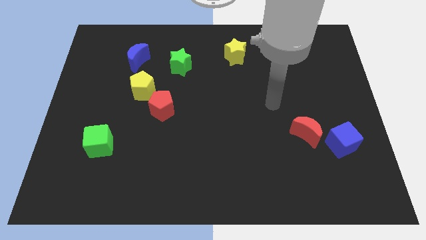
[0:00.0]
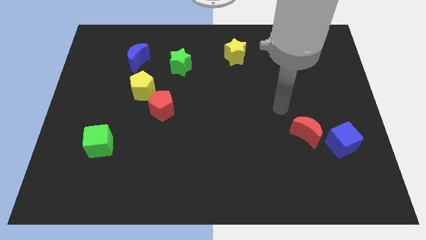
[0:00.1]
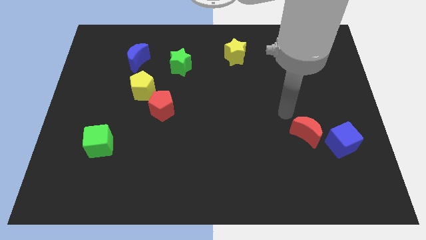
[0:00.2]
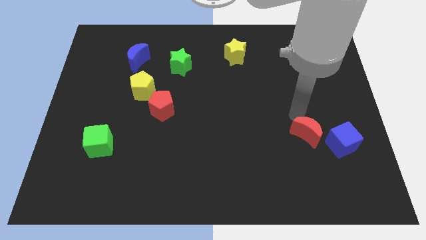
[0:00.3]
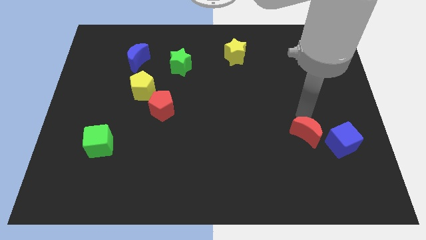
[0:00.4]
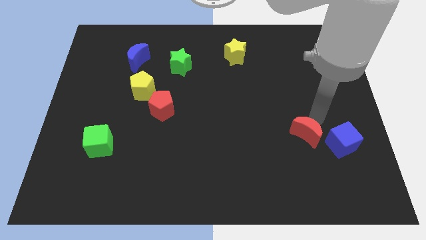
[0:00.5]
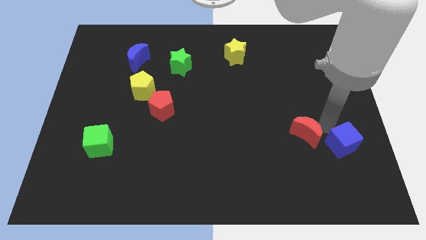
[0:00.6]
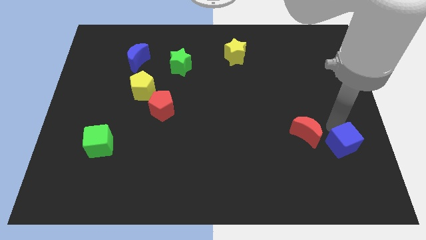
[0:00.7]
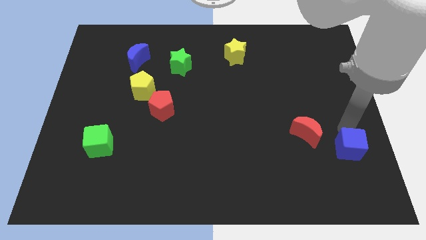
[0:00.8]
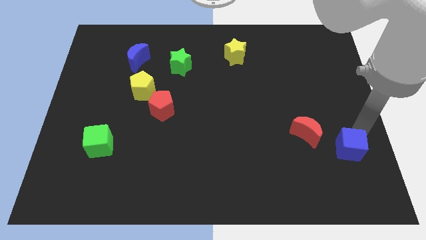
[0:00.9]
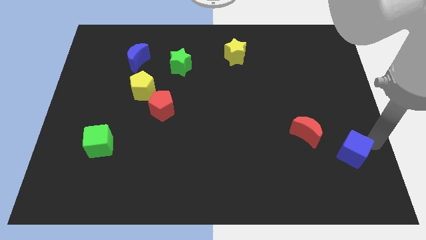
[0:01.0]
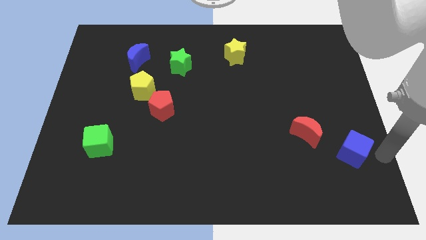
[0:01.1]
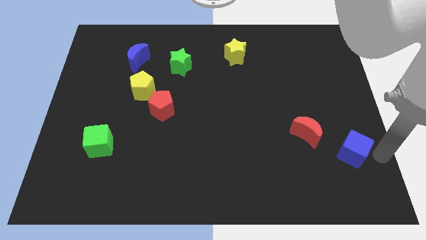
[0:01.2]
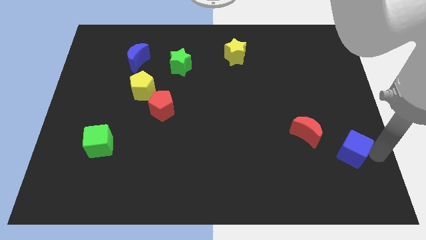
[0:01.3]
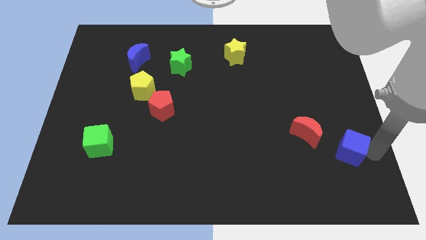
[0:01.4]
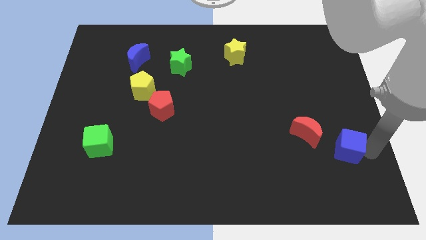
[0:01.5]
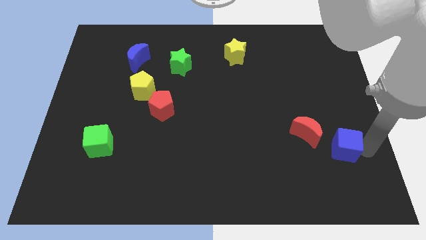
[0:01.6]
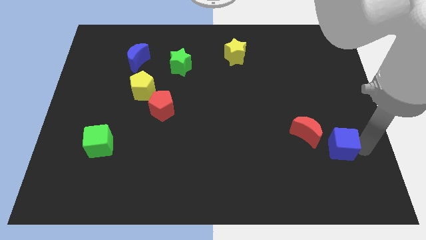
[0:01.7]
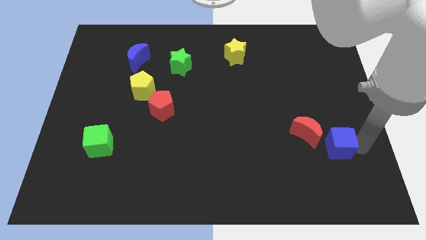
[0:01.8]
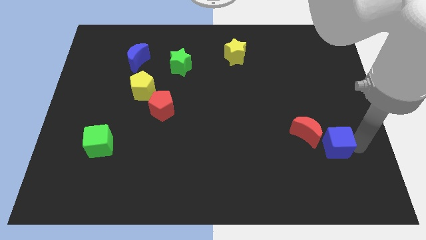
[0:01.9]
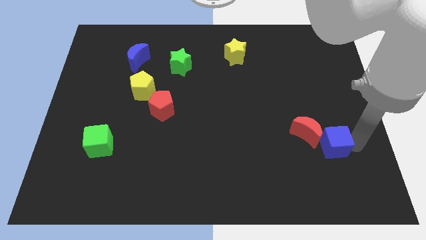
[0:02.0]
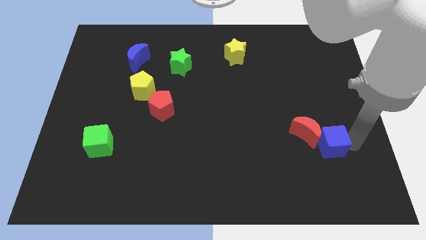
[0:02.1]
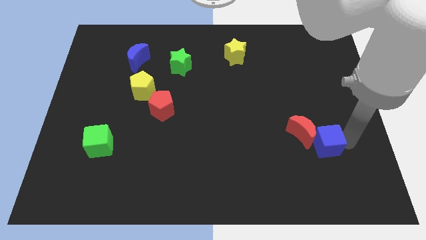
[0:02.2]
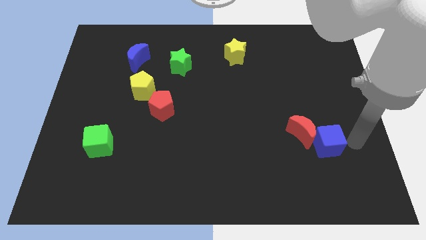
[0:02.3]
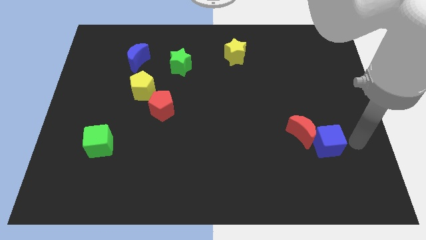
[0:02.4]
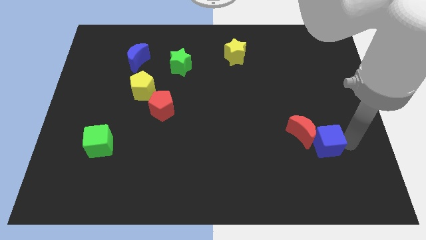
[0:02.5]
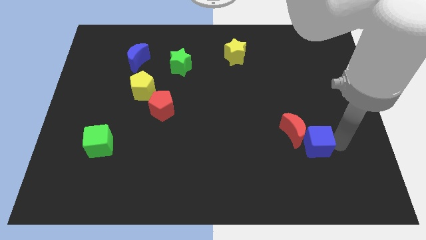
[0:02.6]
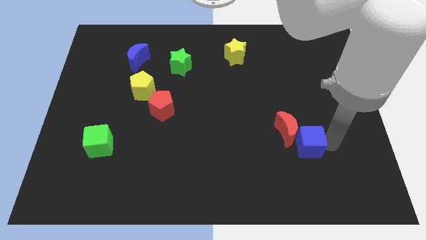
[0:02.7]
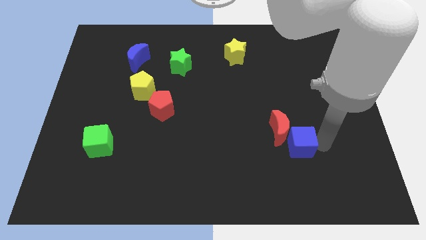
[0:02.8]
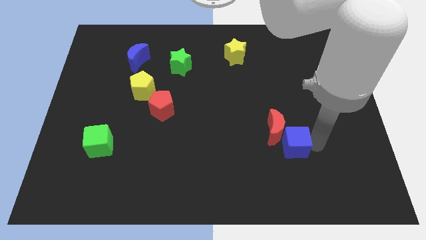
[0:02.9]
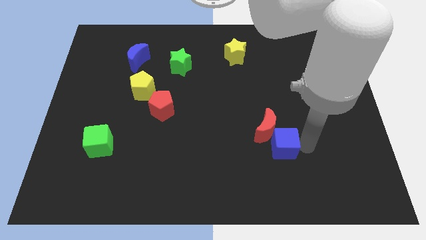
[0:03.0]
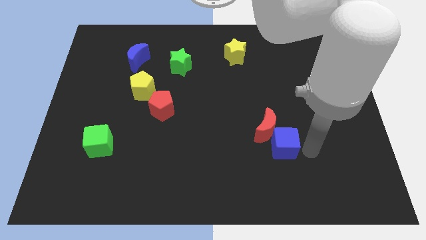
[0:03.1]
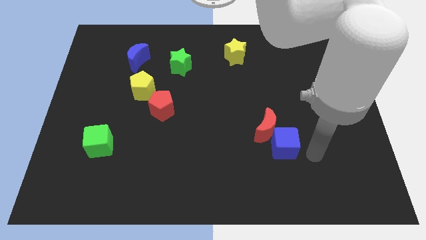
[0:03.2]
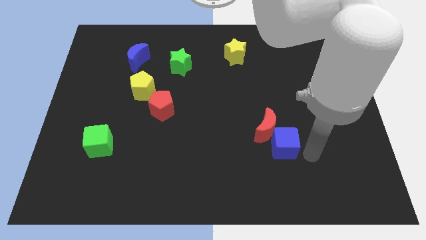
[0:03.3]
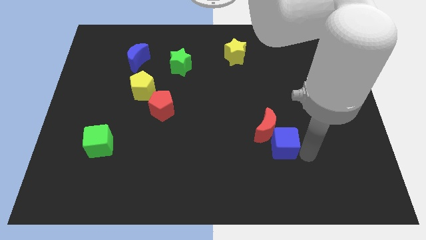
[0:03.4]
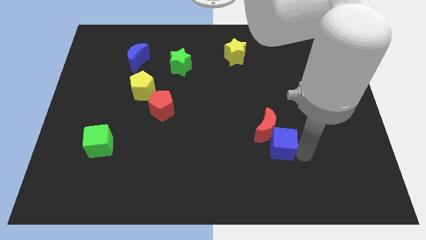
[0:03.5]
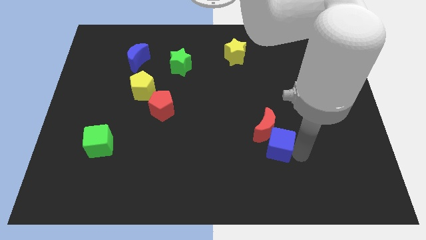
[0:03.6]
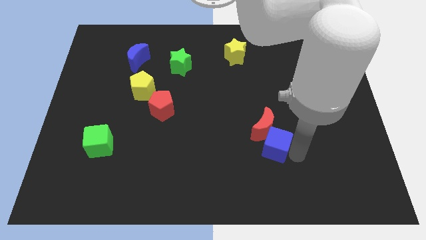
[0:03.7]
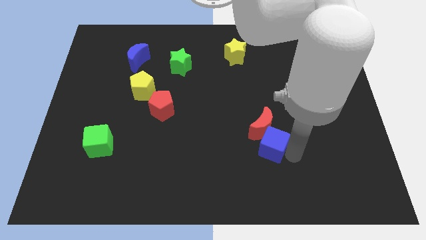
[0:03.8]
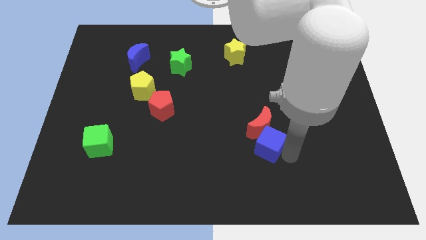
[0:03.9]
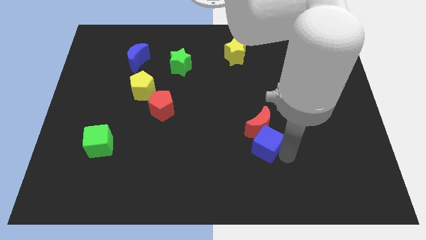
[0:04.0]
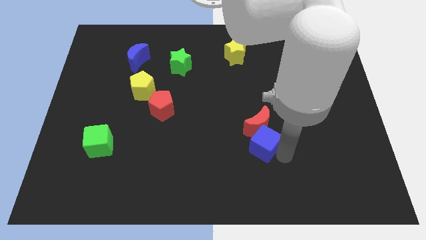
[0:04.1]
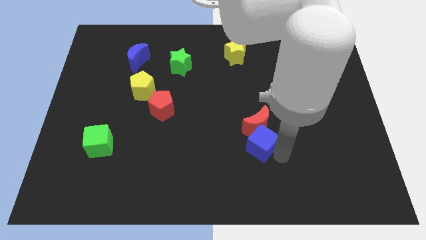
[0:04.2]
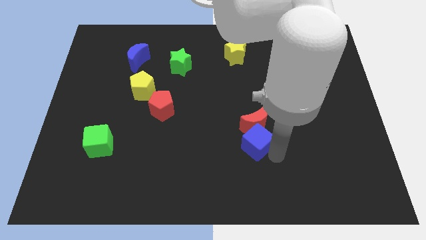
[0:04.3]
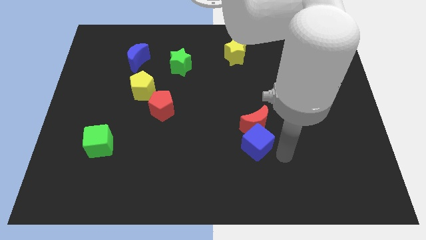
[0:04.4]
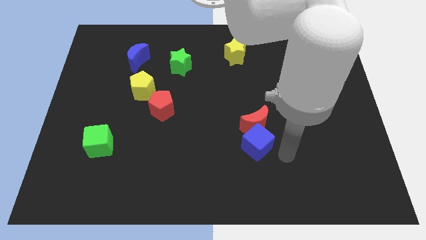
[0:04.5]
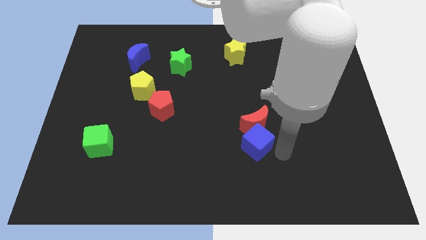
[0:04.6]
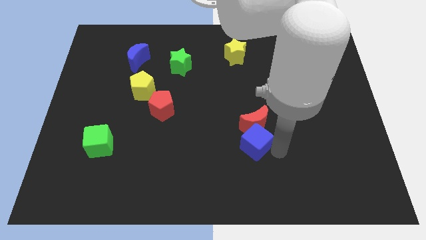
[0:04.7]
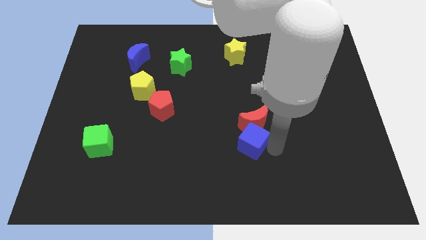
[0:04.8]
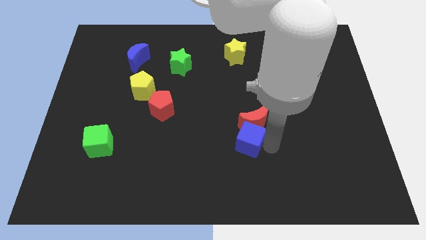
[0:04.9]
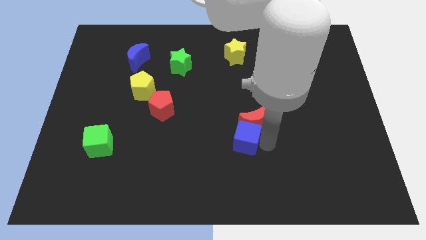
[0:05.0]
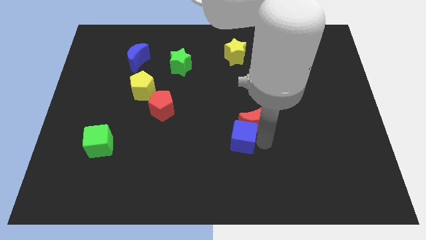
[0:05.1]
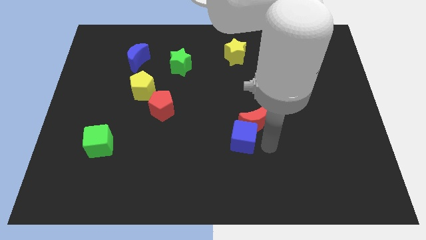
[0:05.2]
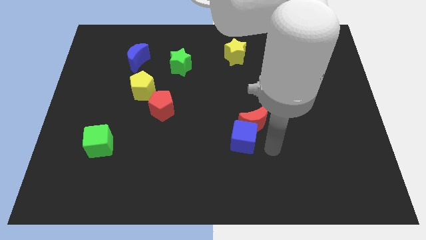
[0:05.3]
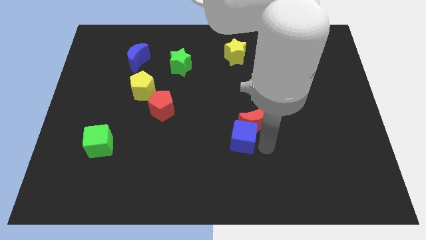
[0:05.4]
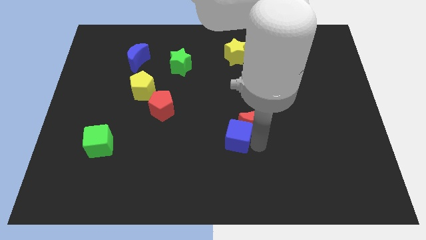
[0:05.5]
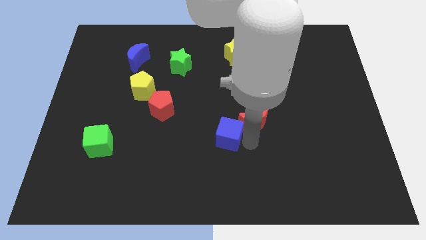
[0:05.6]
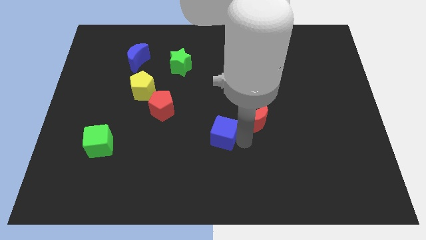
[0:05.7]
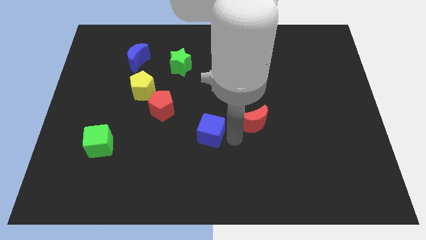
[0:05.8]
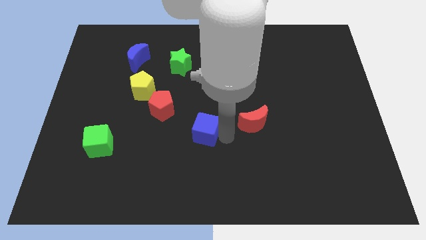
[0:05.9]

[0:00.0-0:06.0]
slide the blue cube to the bottom right of the red pentagon

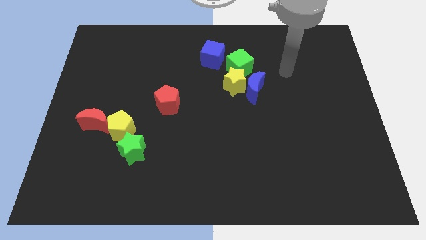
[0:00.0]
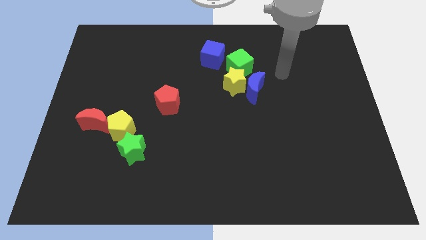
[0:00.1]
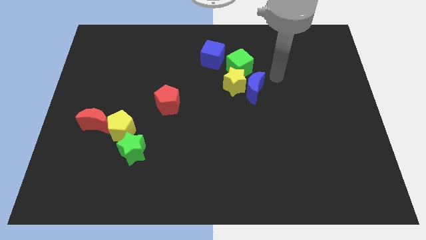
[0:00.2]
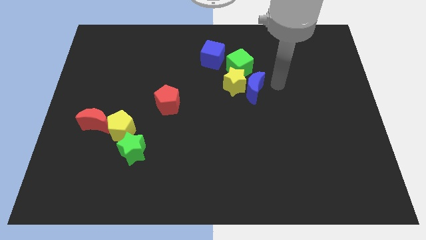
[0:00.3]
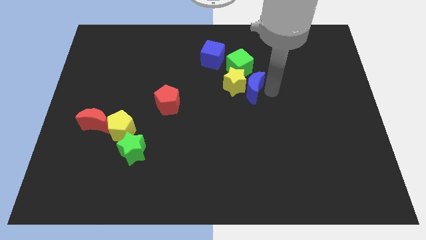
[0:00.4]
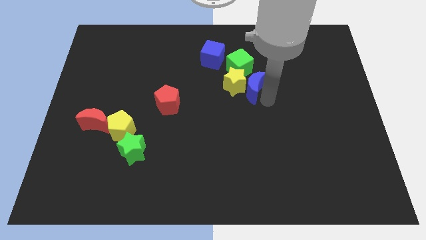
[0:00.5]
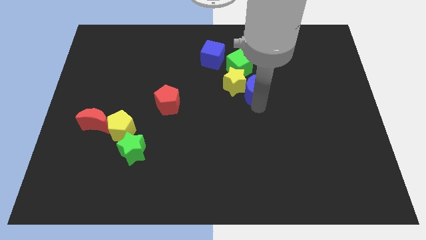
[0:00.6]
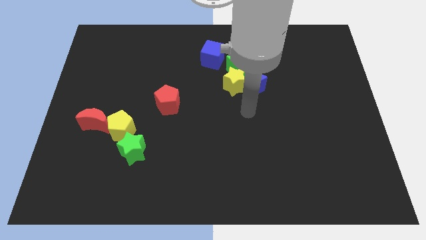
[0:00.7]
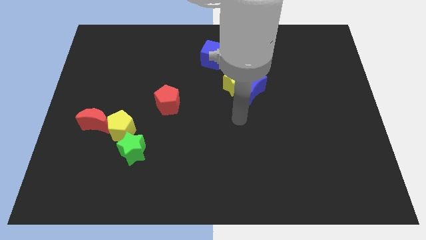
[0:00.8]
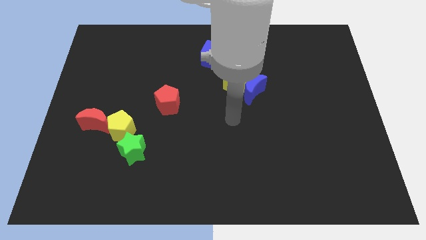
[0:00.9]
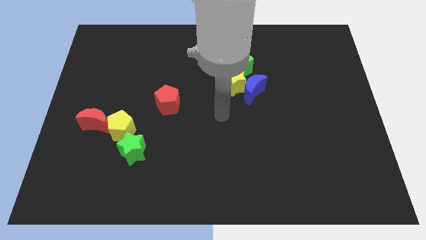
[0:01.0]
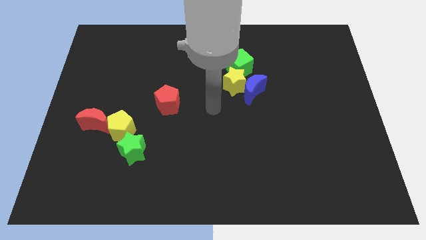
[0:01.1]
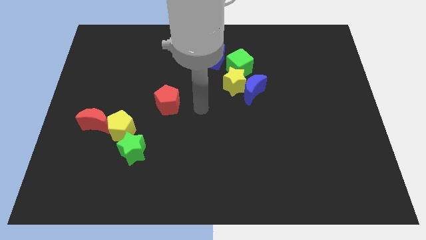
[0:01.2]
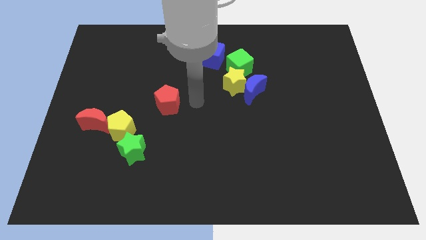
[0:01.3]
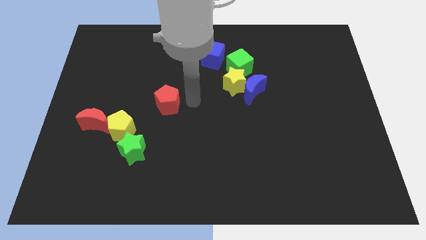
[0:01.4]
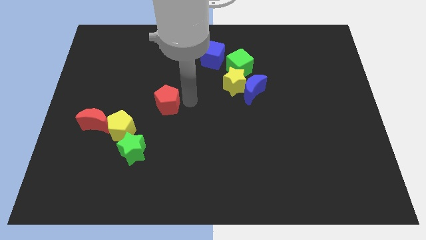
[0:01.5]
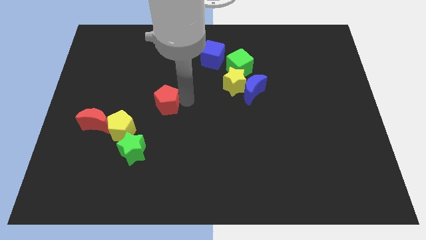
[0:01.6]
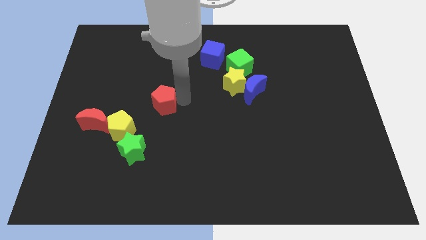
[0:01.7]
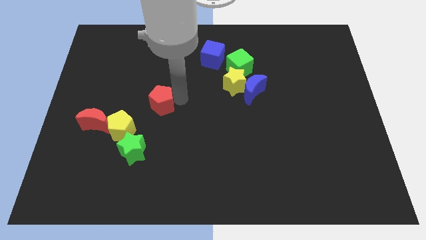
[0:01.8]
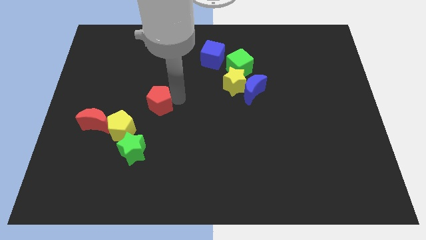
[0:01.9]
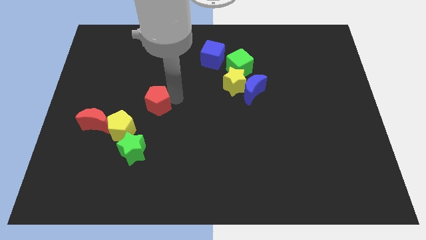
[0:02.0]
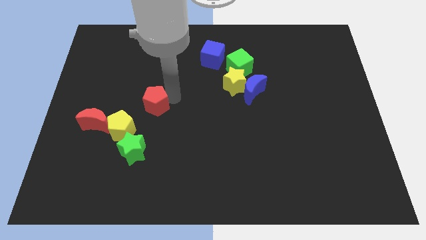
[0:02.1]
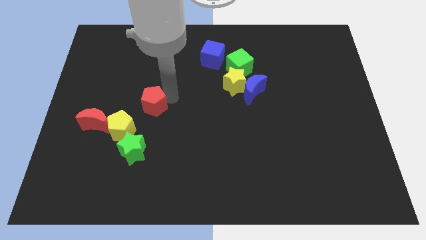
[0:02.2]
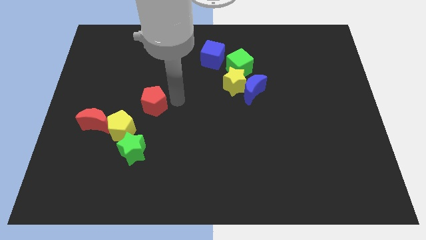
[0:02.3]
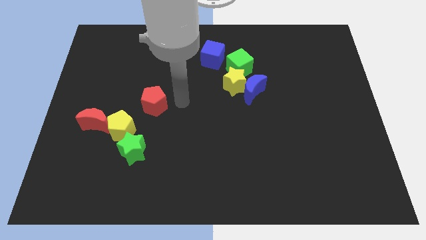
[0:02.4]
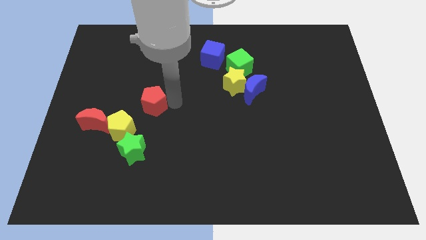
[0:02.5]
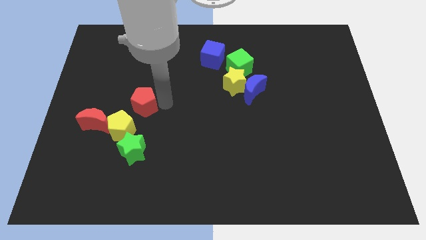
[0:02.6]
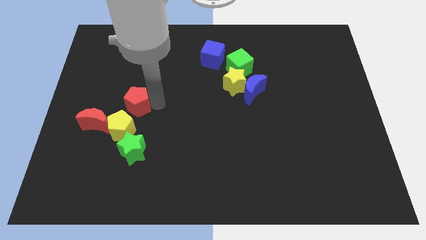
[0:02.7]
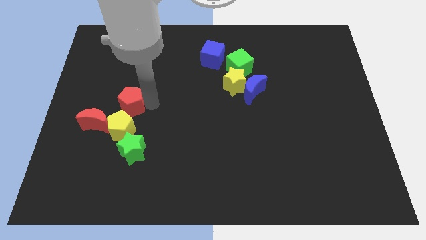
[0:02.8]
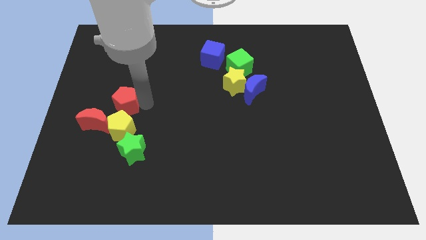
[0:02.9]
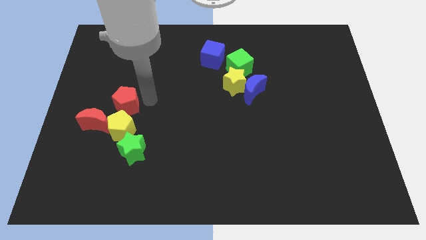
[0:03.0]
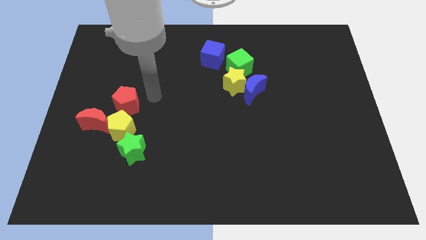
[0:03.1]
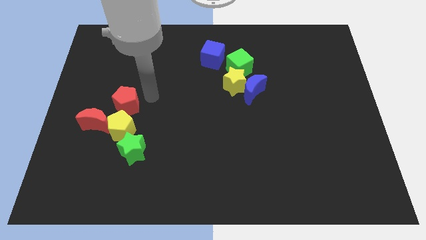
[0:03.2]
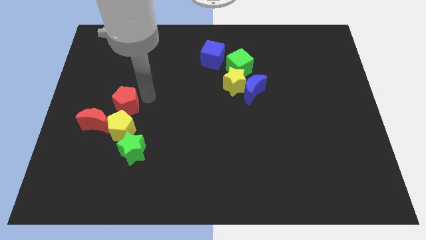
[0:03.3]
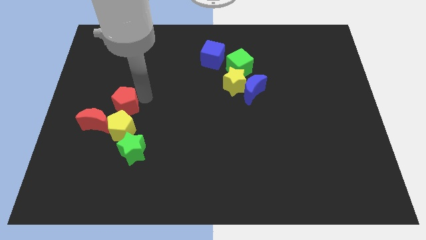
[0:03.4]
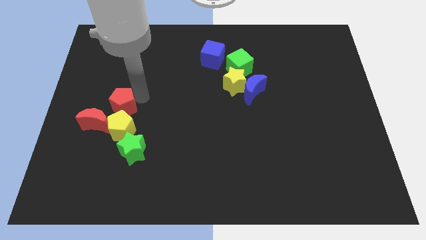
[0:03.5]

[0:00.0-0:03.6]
put the red pentagon to the top left of the yellow pentagon
